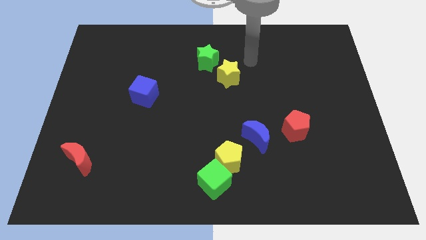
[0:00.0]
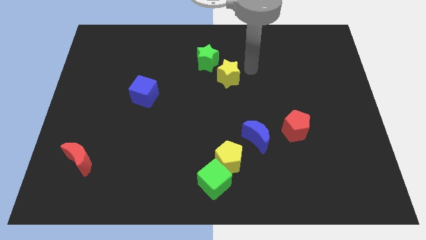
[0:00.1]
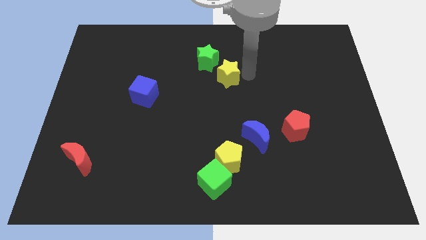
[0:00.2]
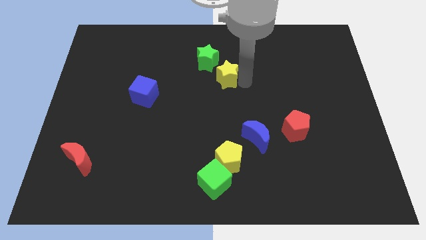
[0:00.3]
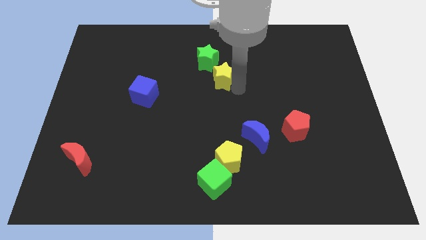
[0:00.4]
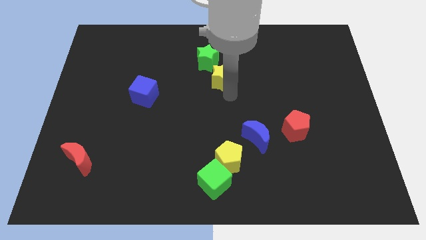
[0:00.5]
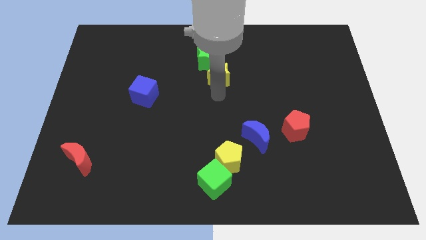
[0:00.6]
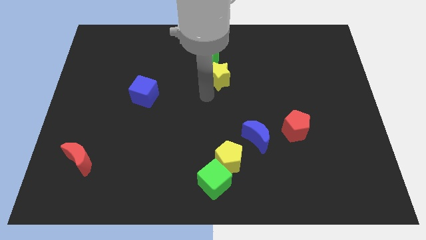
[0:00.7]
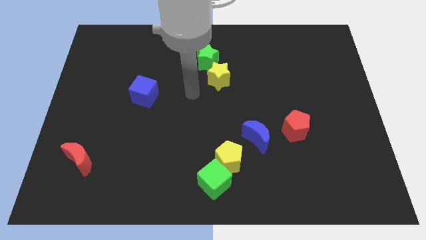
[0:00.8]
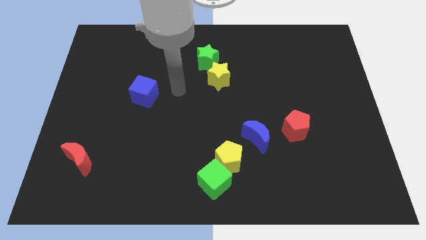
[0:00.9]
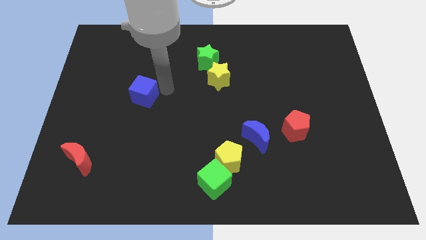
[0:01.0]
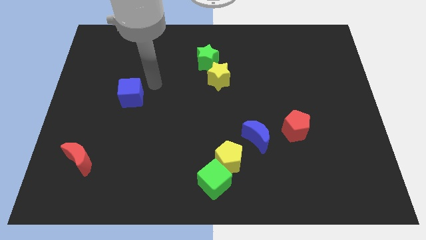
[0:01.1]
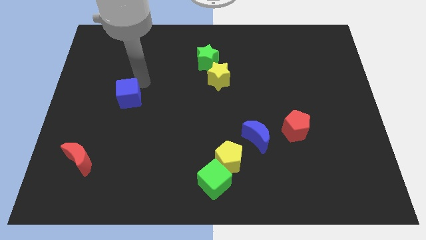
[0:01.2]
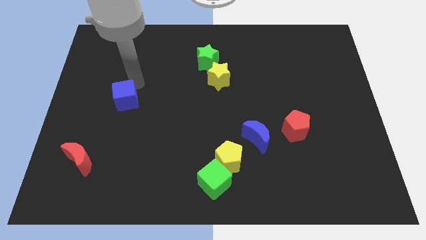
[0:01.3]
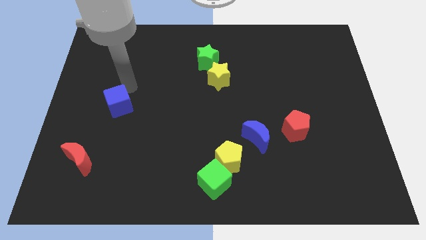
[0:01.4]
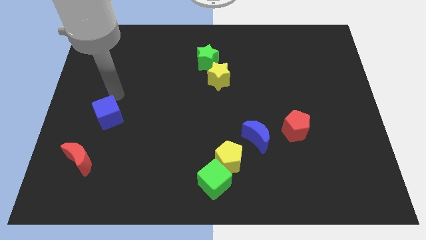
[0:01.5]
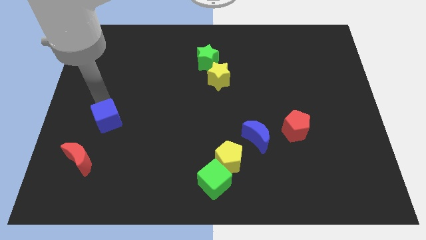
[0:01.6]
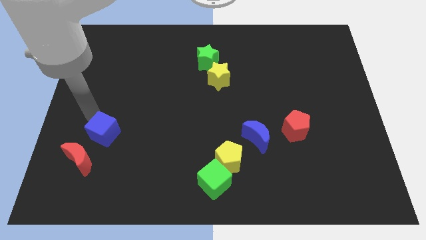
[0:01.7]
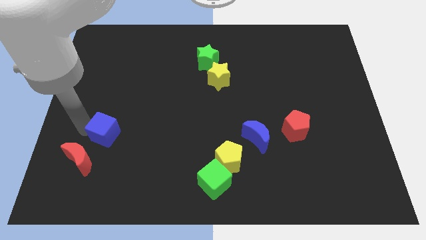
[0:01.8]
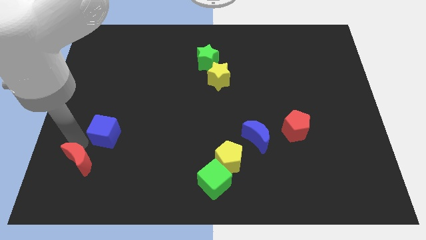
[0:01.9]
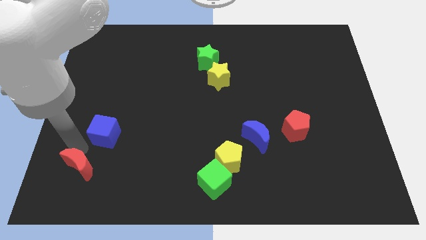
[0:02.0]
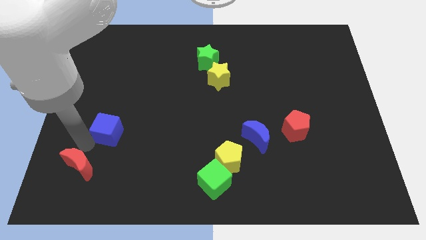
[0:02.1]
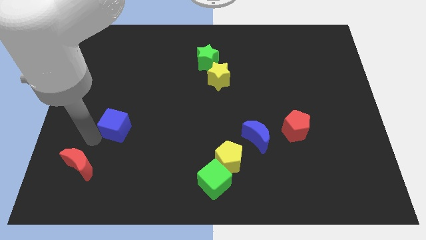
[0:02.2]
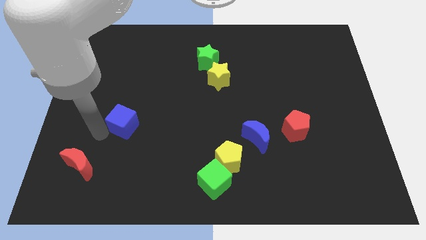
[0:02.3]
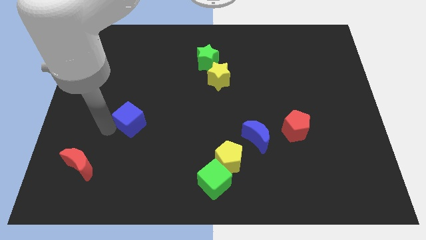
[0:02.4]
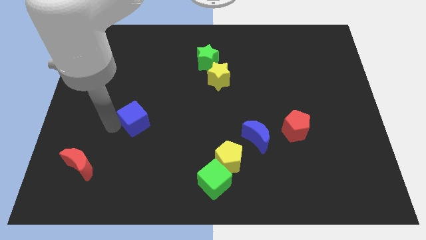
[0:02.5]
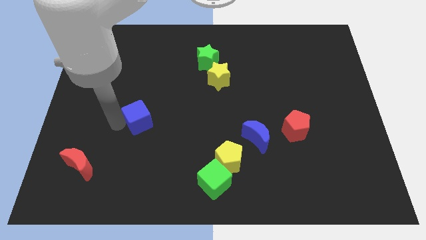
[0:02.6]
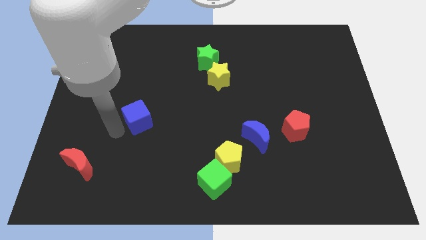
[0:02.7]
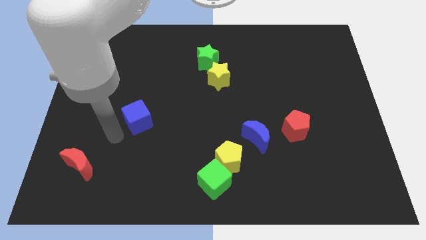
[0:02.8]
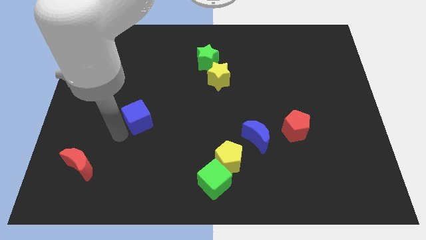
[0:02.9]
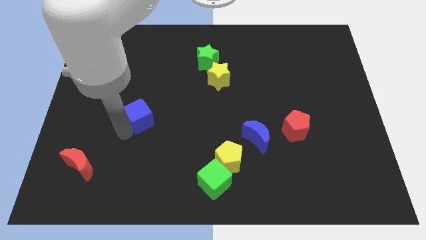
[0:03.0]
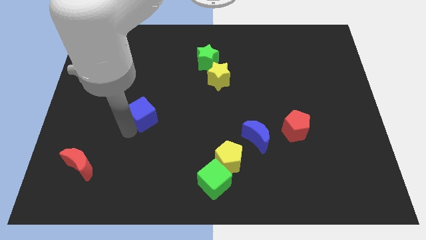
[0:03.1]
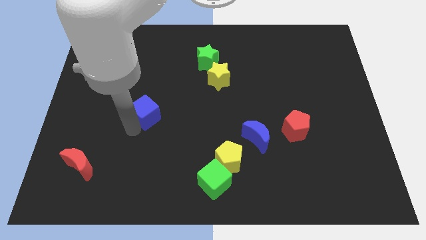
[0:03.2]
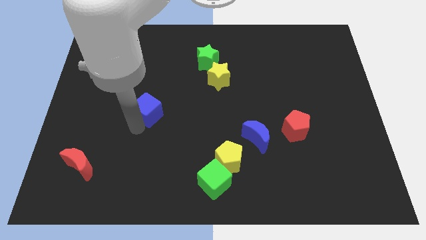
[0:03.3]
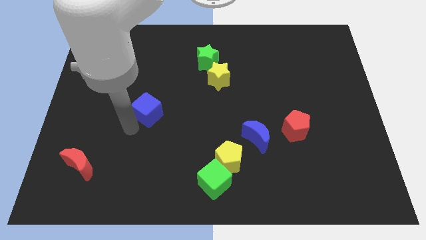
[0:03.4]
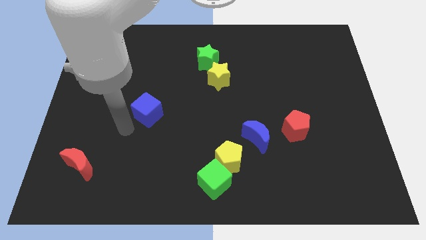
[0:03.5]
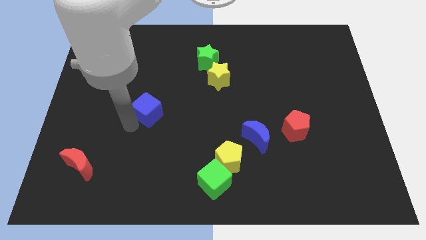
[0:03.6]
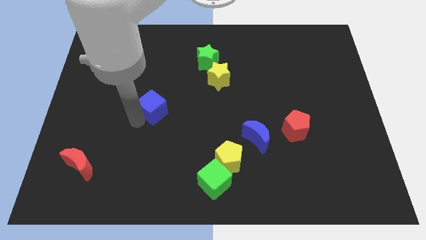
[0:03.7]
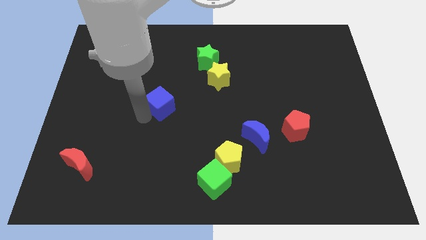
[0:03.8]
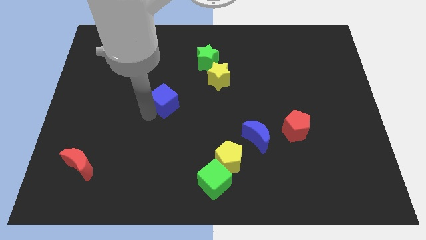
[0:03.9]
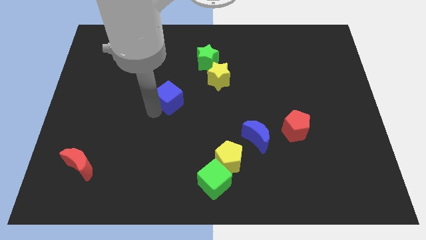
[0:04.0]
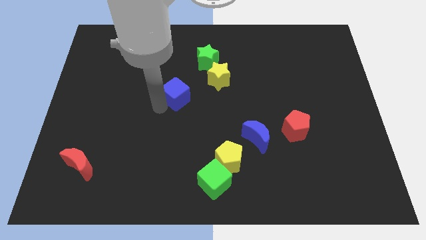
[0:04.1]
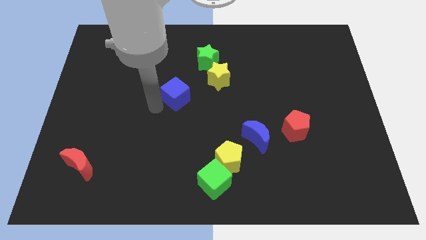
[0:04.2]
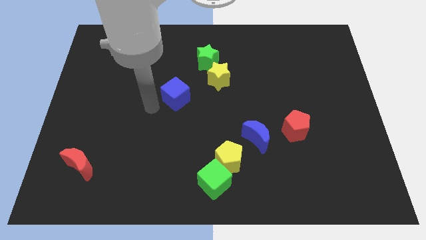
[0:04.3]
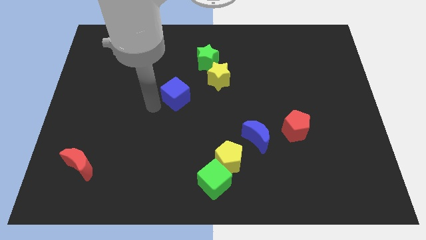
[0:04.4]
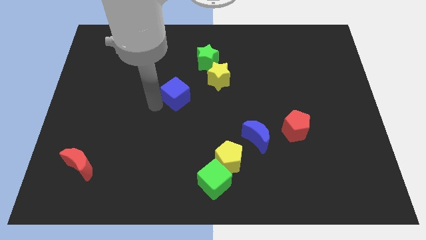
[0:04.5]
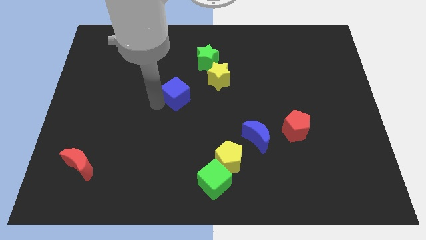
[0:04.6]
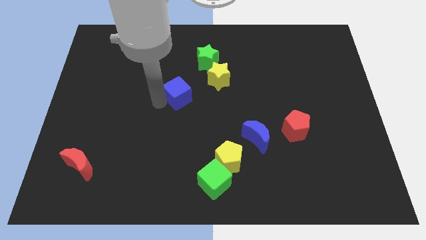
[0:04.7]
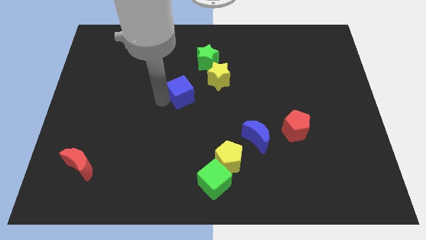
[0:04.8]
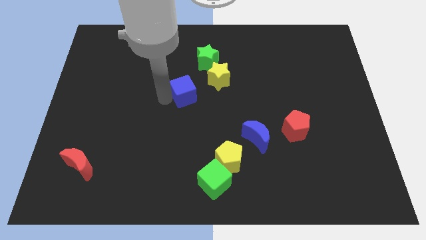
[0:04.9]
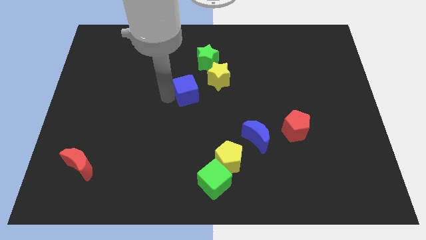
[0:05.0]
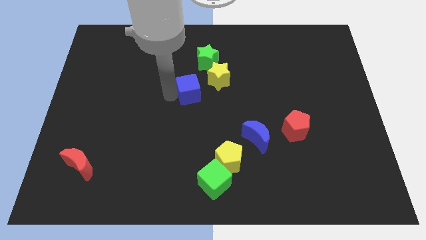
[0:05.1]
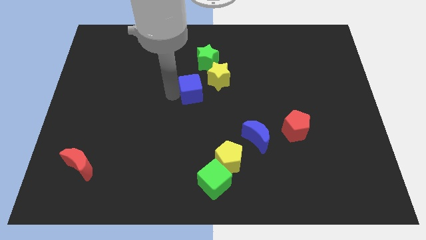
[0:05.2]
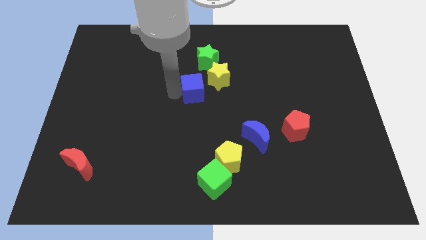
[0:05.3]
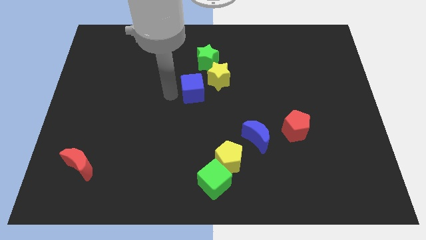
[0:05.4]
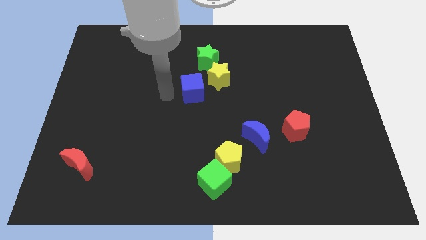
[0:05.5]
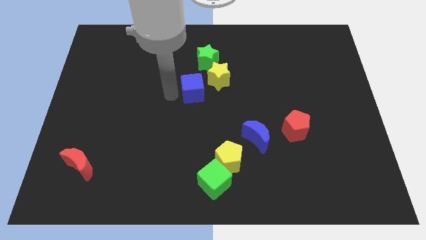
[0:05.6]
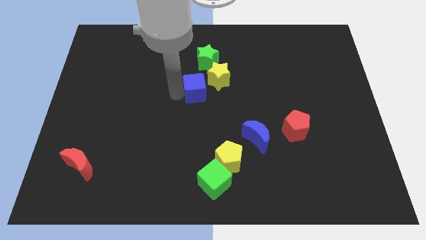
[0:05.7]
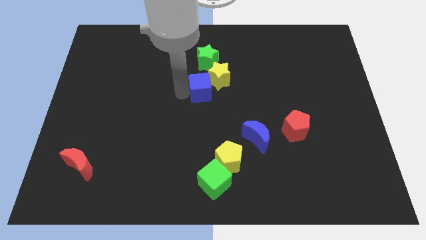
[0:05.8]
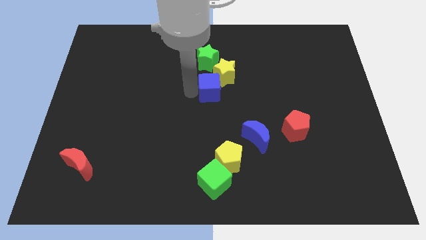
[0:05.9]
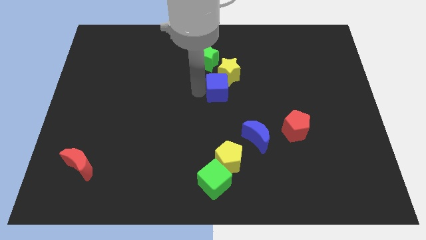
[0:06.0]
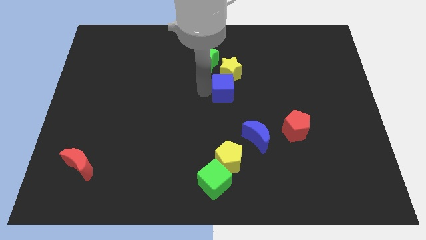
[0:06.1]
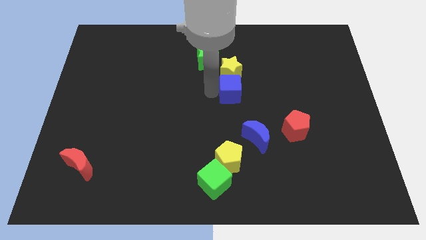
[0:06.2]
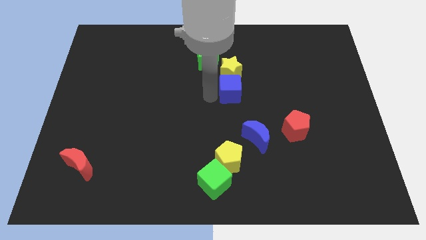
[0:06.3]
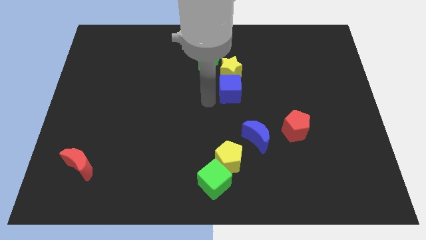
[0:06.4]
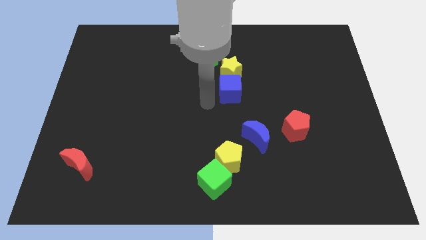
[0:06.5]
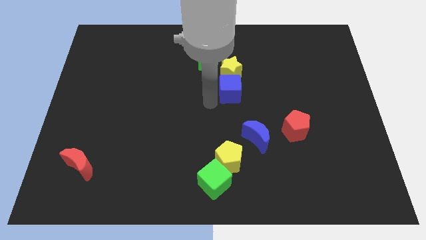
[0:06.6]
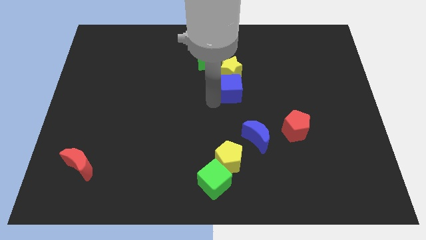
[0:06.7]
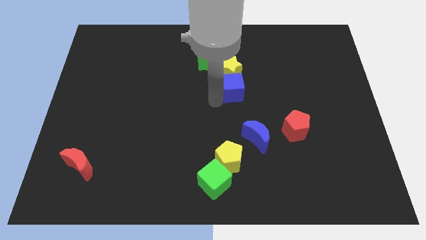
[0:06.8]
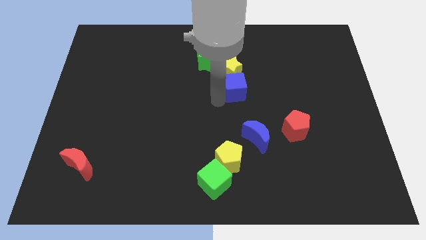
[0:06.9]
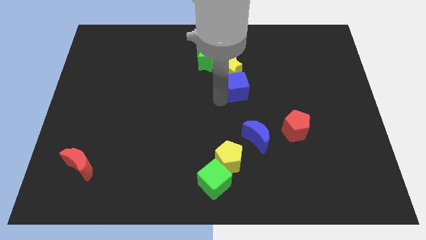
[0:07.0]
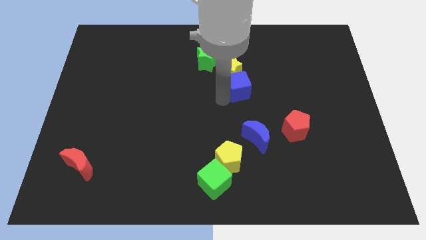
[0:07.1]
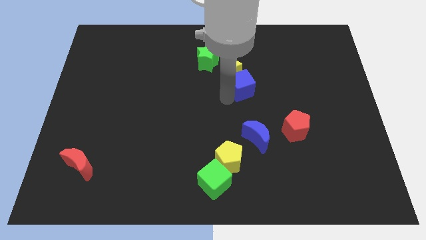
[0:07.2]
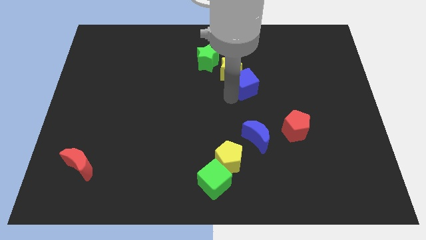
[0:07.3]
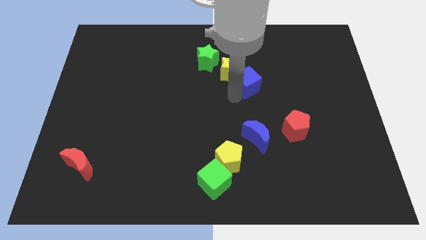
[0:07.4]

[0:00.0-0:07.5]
move the blue cube to the right of the yellow star
